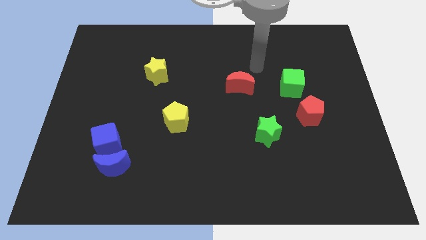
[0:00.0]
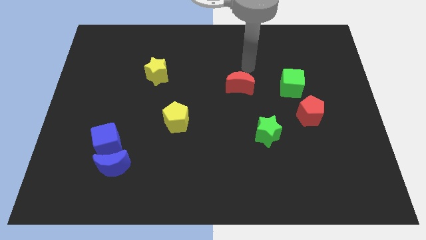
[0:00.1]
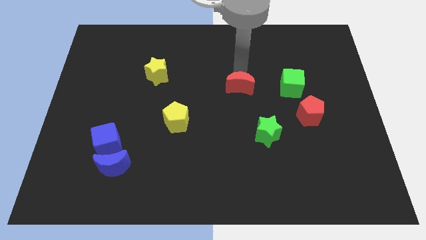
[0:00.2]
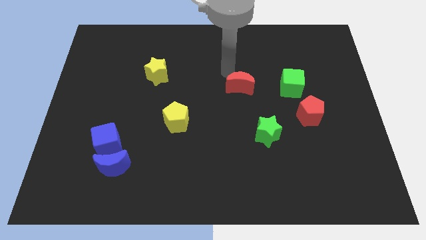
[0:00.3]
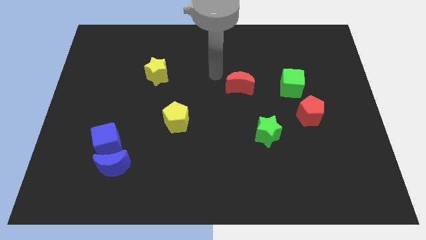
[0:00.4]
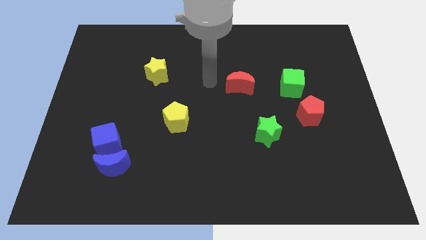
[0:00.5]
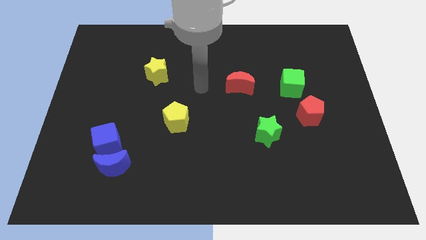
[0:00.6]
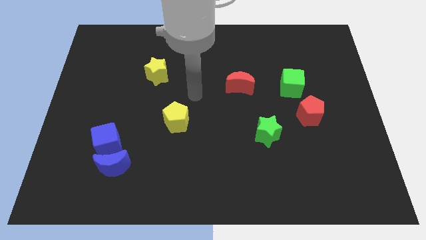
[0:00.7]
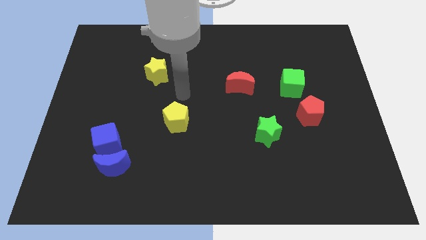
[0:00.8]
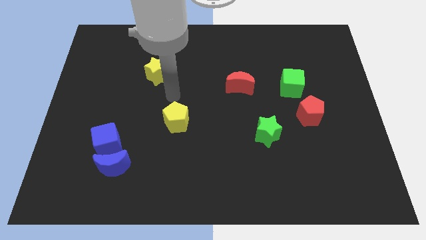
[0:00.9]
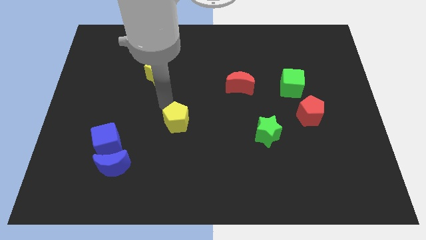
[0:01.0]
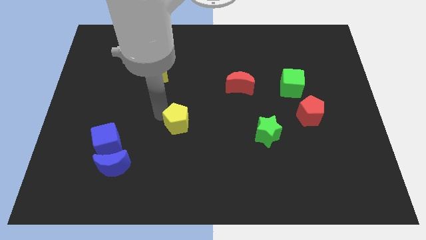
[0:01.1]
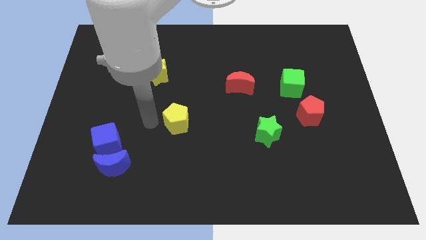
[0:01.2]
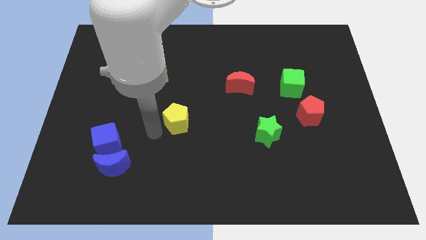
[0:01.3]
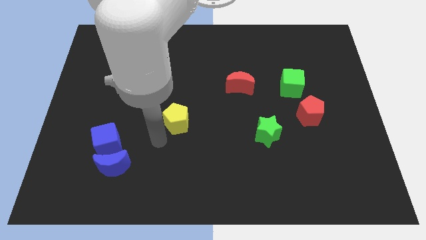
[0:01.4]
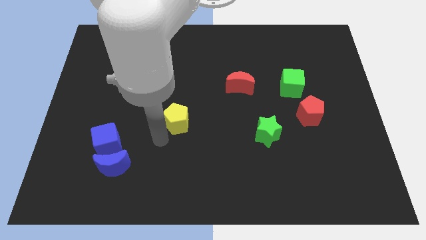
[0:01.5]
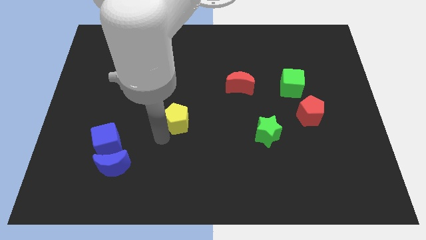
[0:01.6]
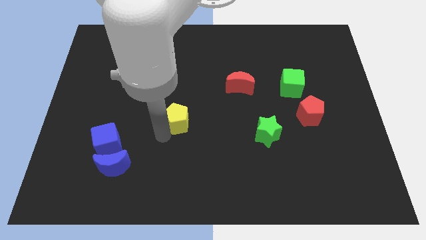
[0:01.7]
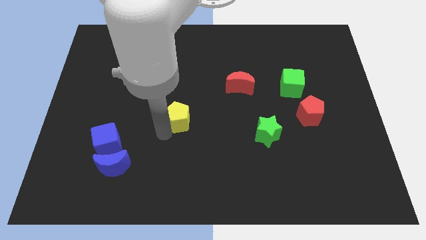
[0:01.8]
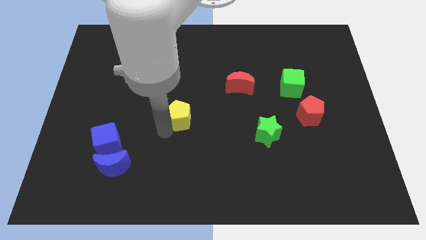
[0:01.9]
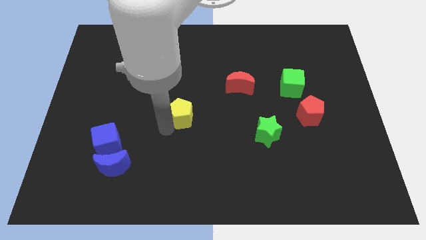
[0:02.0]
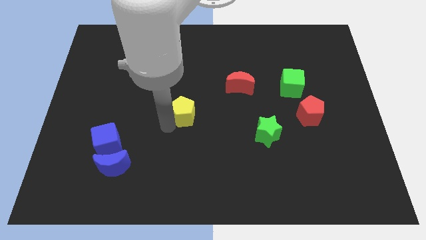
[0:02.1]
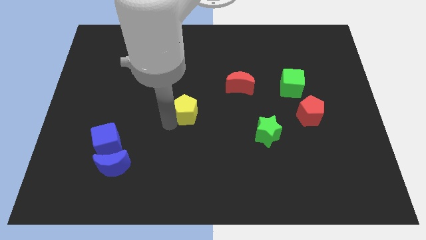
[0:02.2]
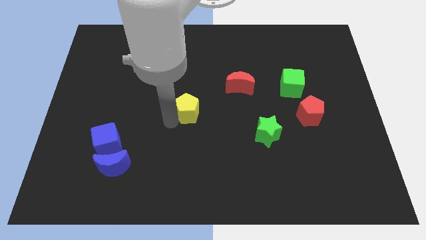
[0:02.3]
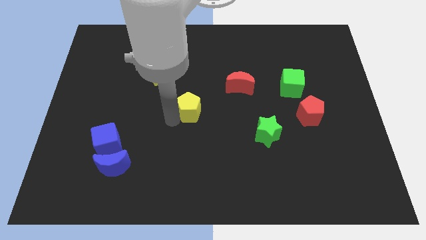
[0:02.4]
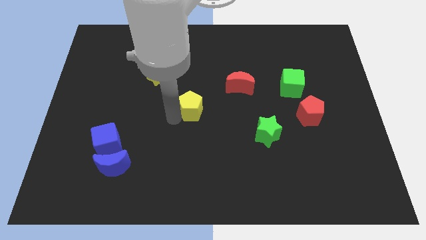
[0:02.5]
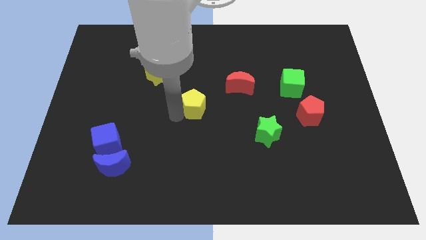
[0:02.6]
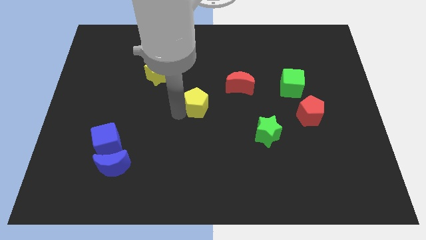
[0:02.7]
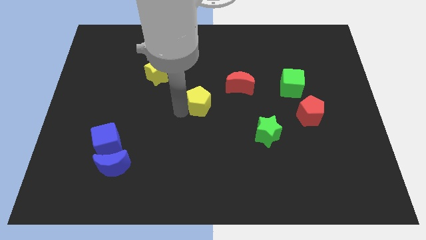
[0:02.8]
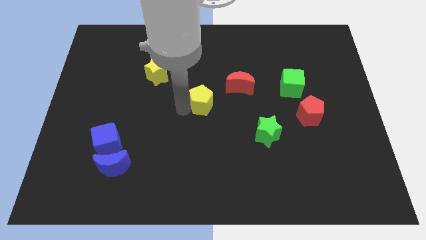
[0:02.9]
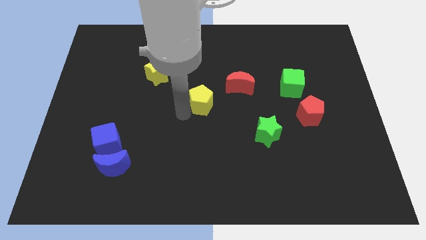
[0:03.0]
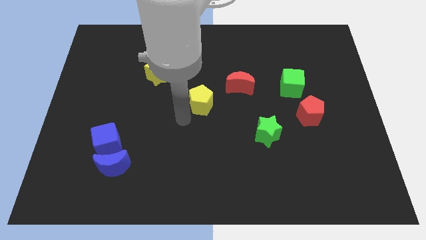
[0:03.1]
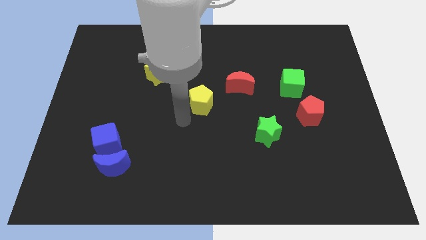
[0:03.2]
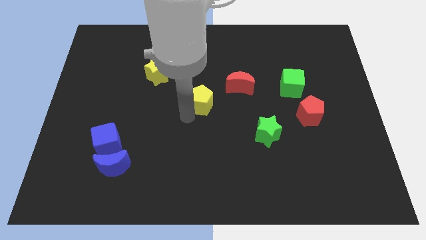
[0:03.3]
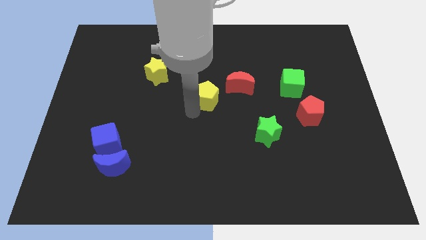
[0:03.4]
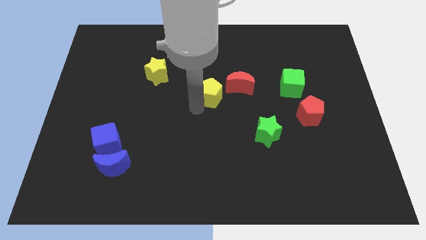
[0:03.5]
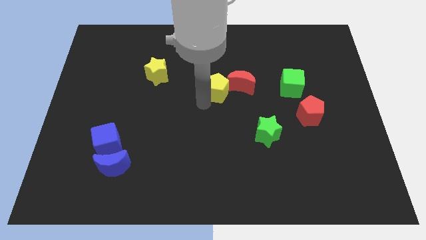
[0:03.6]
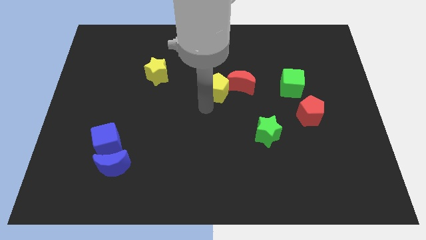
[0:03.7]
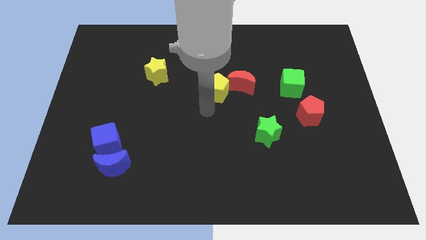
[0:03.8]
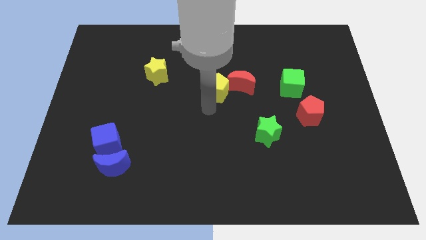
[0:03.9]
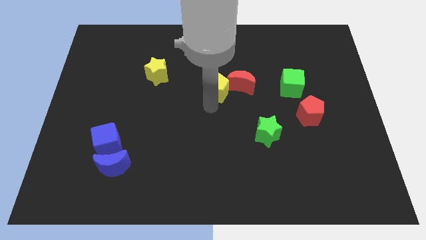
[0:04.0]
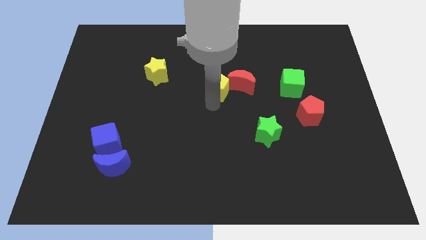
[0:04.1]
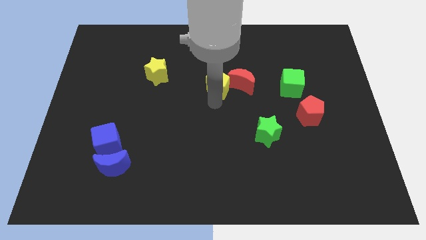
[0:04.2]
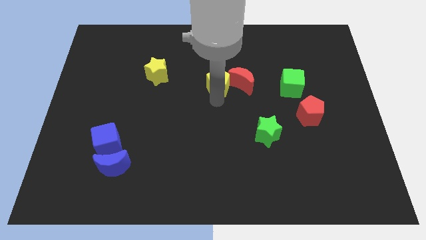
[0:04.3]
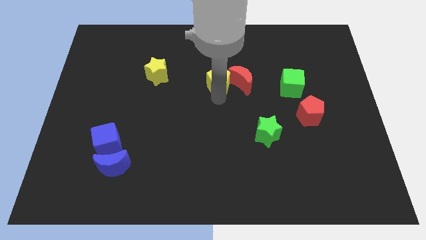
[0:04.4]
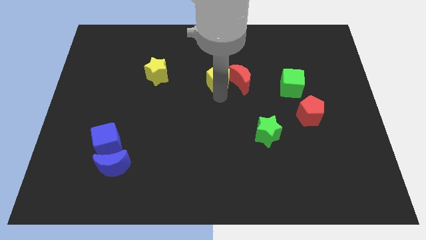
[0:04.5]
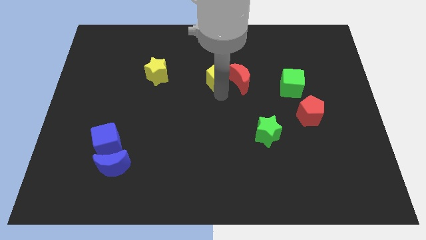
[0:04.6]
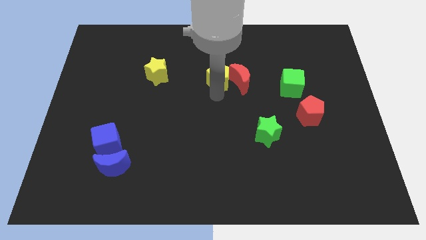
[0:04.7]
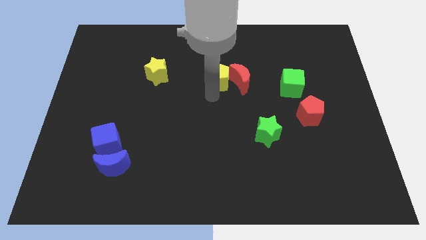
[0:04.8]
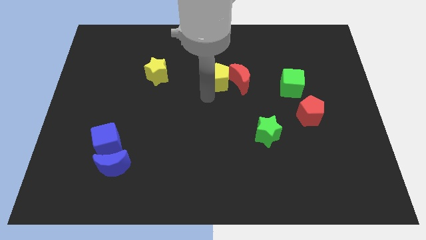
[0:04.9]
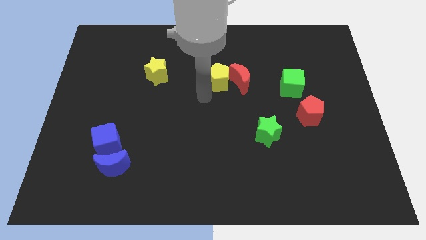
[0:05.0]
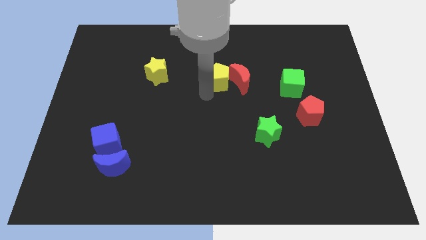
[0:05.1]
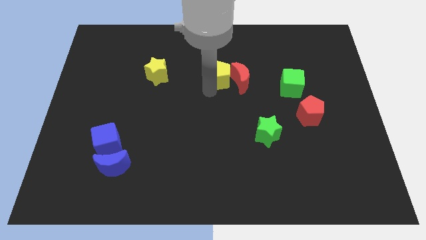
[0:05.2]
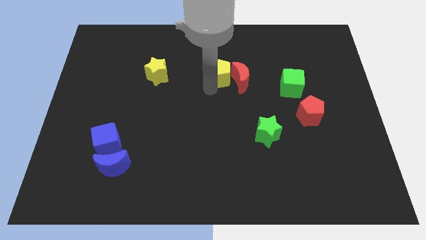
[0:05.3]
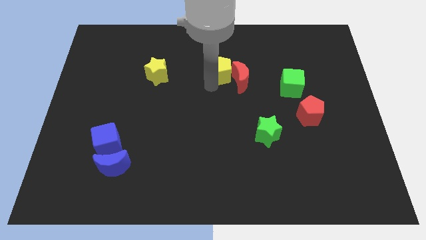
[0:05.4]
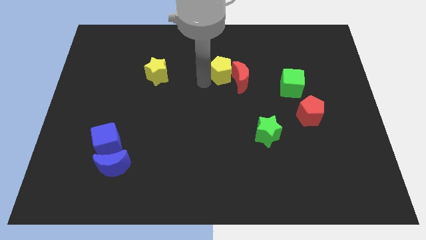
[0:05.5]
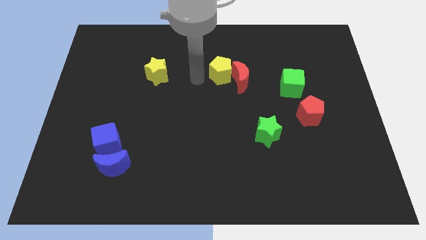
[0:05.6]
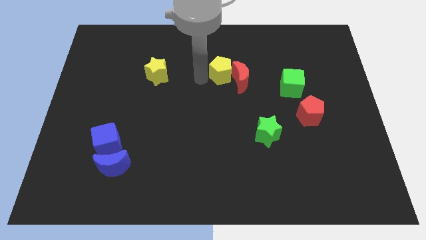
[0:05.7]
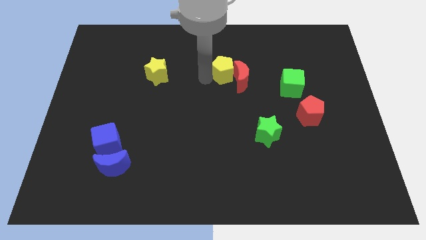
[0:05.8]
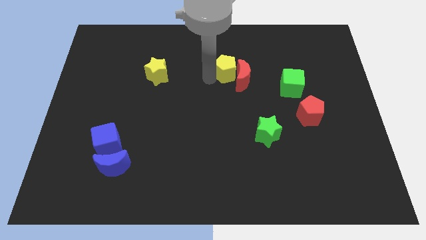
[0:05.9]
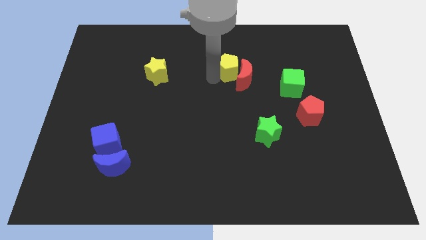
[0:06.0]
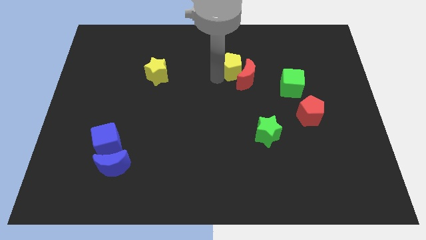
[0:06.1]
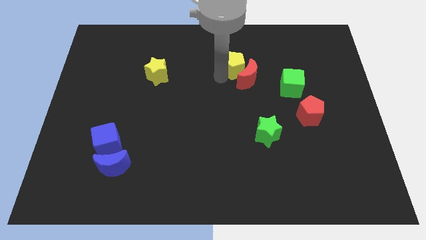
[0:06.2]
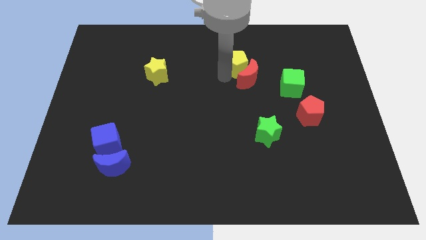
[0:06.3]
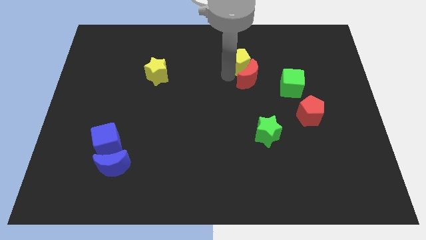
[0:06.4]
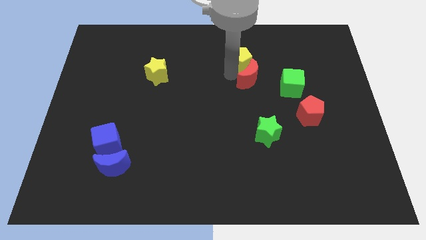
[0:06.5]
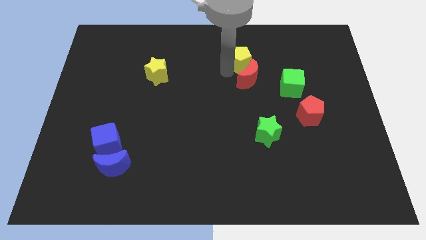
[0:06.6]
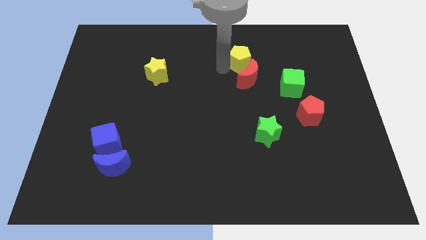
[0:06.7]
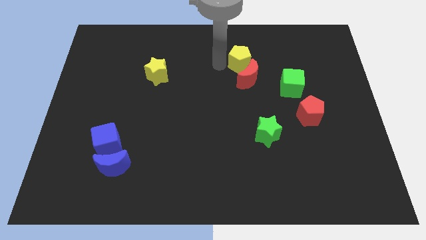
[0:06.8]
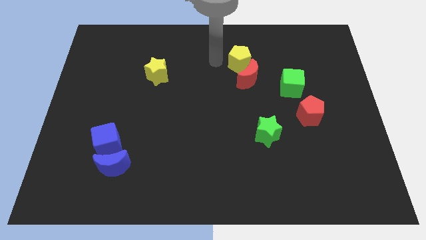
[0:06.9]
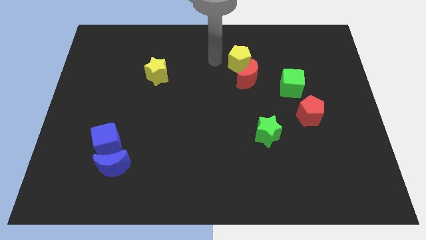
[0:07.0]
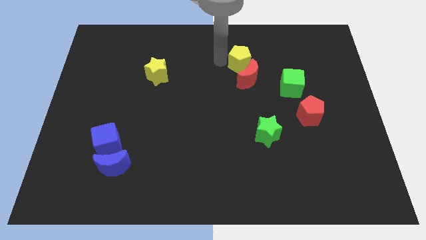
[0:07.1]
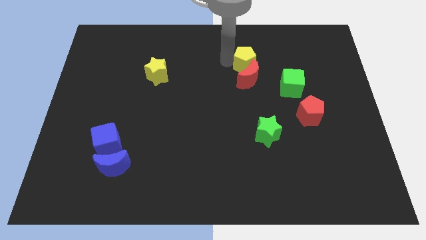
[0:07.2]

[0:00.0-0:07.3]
put the yellow pentagon to the top right of the red moon

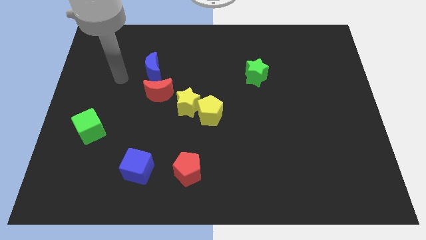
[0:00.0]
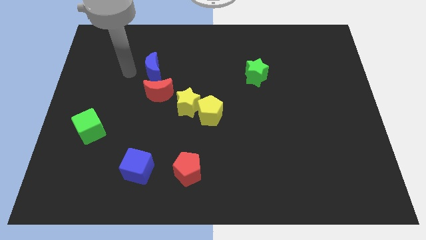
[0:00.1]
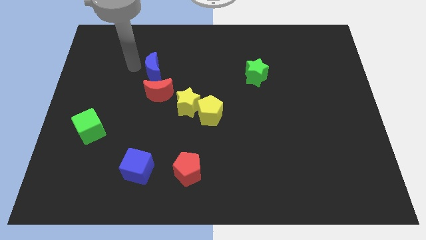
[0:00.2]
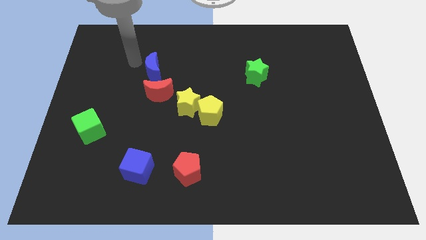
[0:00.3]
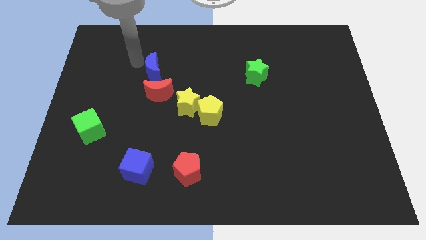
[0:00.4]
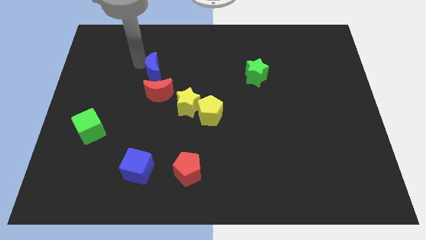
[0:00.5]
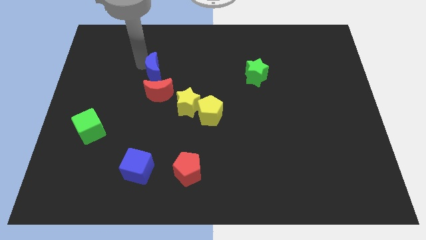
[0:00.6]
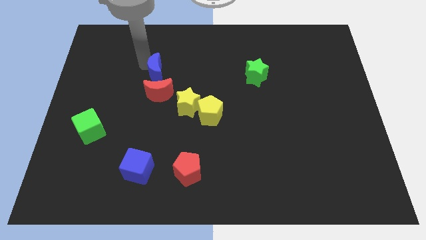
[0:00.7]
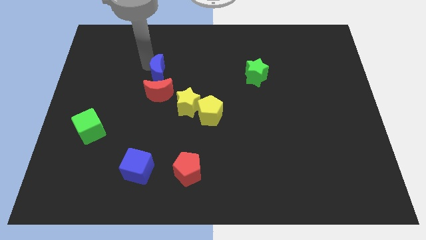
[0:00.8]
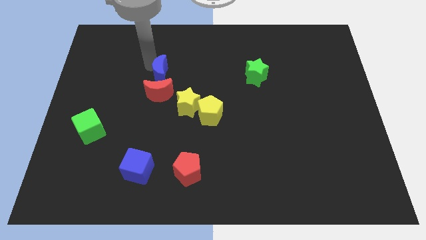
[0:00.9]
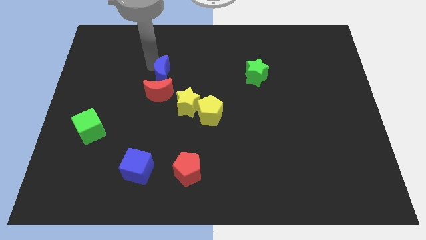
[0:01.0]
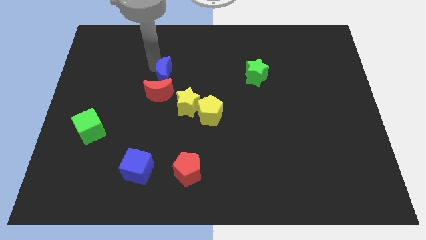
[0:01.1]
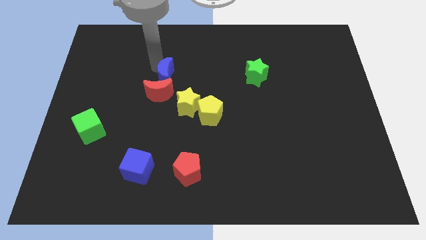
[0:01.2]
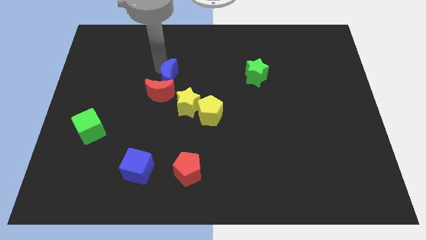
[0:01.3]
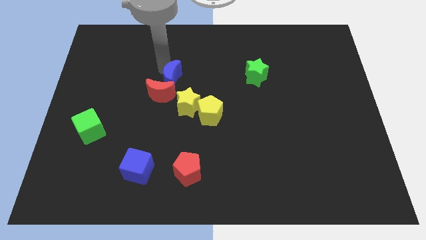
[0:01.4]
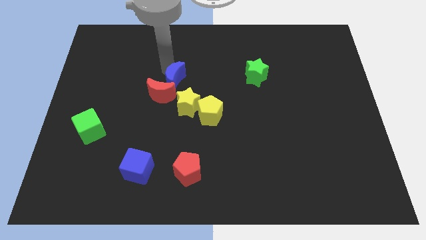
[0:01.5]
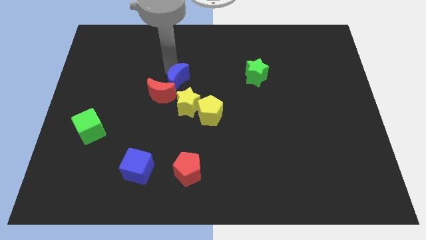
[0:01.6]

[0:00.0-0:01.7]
slide the blue moon to the right side of the red moon
